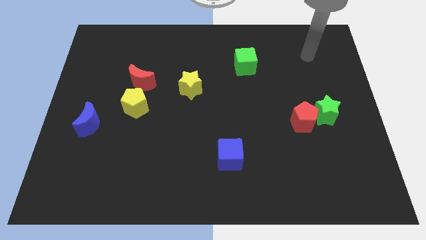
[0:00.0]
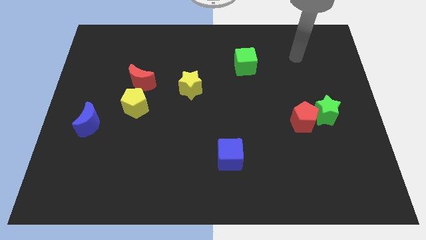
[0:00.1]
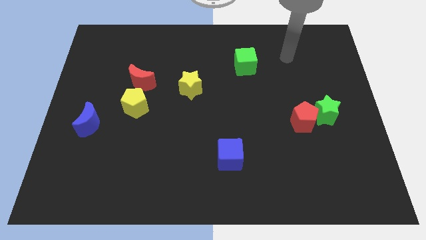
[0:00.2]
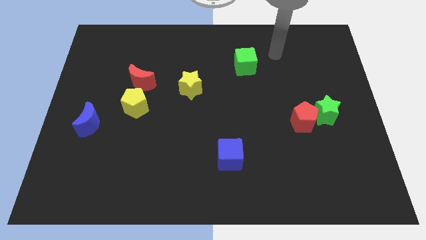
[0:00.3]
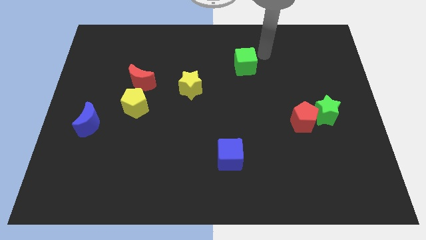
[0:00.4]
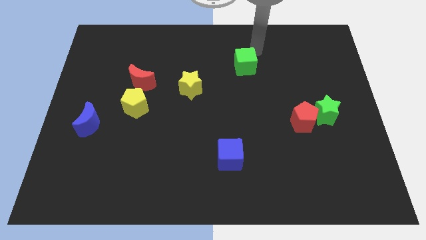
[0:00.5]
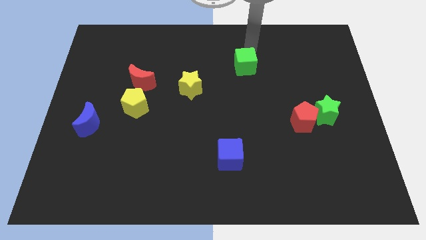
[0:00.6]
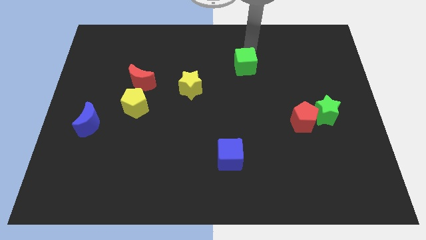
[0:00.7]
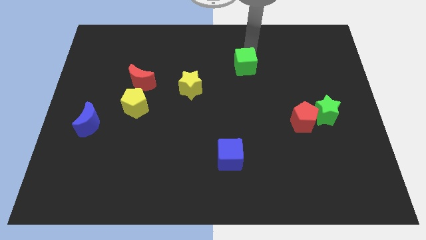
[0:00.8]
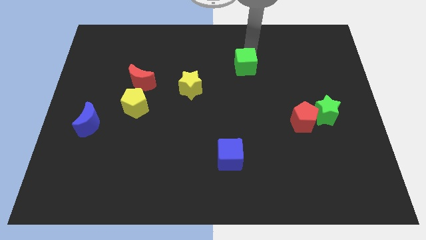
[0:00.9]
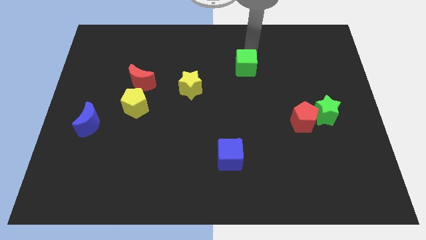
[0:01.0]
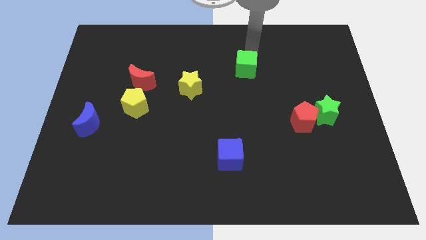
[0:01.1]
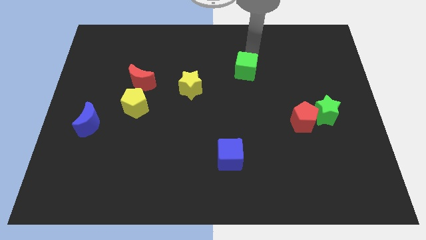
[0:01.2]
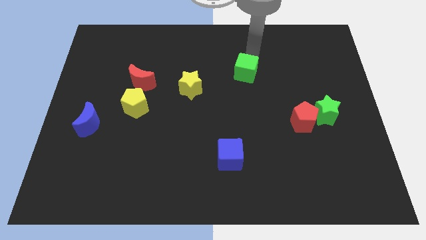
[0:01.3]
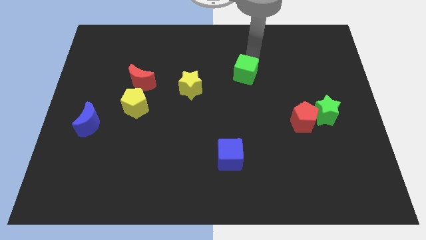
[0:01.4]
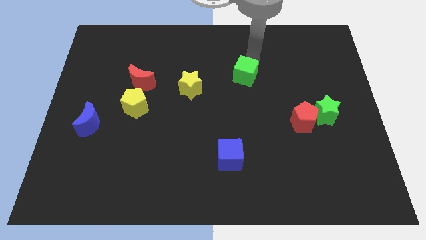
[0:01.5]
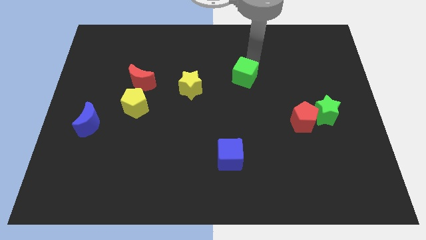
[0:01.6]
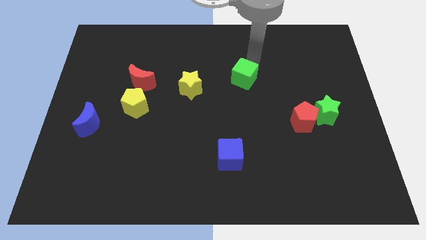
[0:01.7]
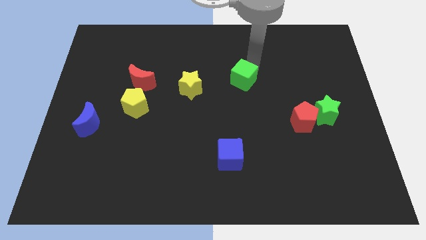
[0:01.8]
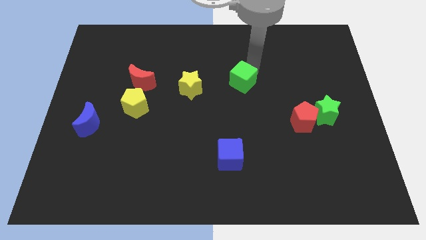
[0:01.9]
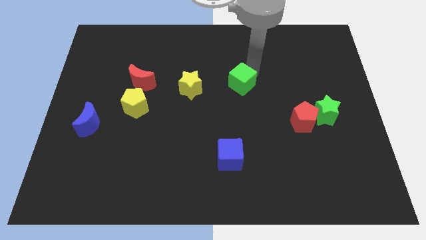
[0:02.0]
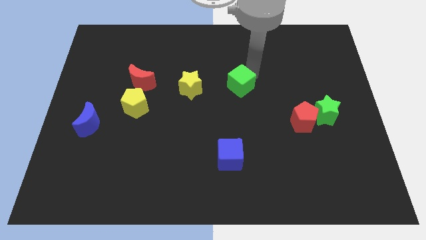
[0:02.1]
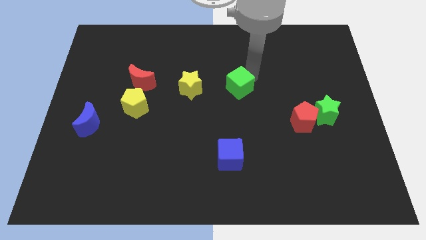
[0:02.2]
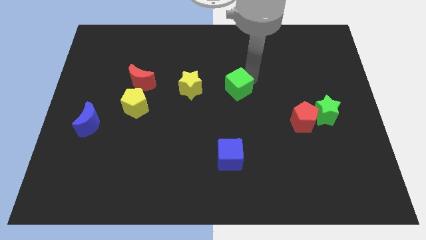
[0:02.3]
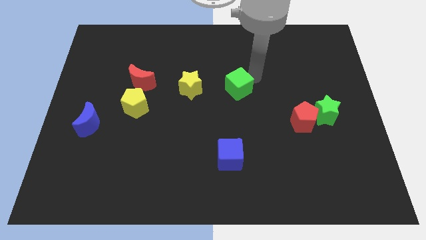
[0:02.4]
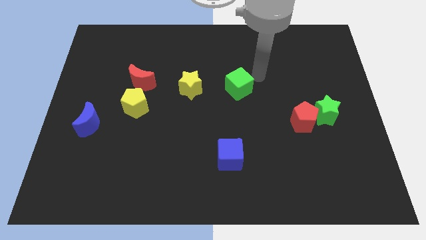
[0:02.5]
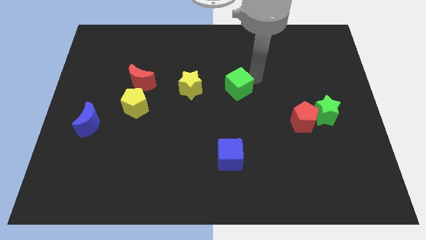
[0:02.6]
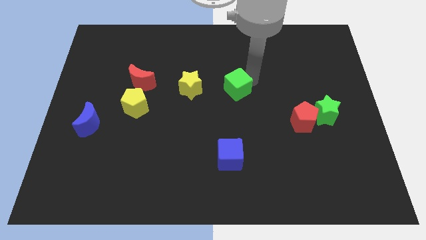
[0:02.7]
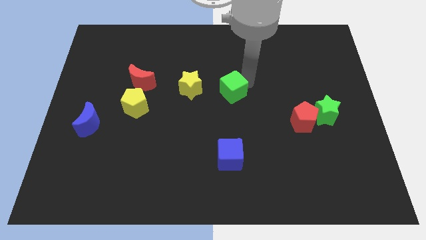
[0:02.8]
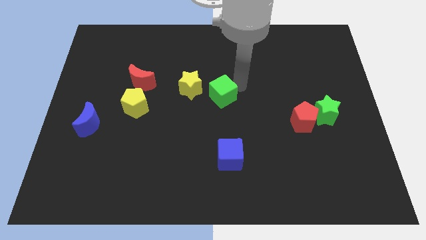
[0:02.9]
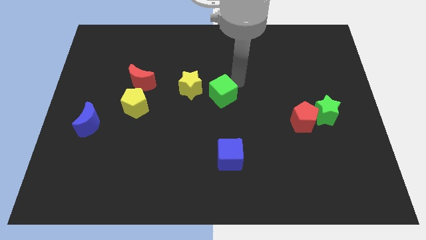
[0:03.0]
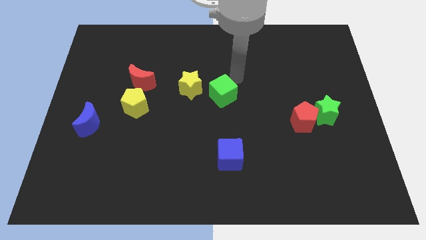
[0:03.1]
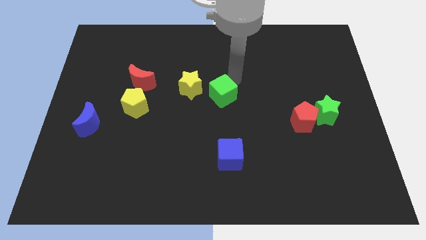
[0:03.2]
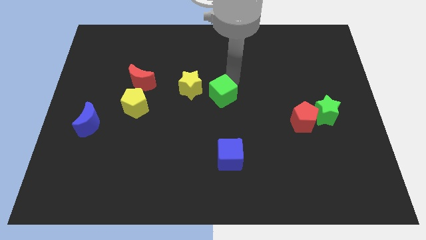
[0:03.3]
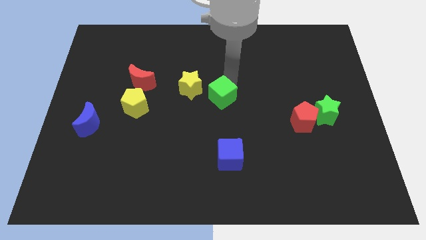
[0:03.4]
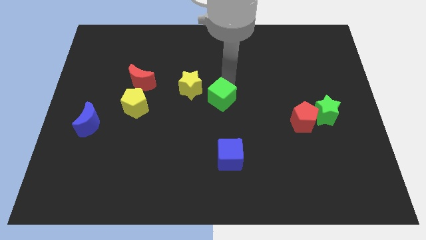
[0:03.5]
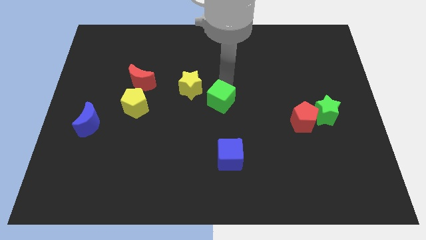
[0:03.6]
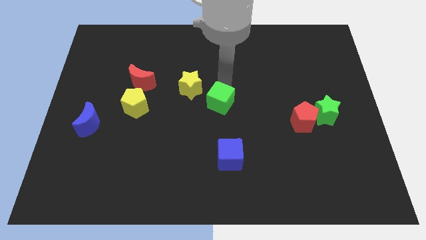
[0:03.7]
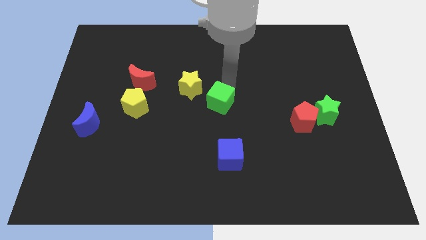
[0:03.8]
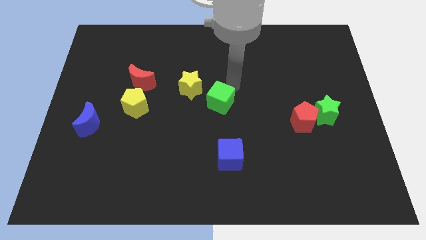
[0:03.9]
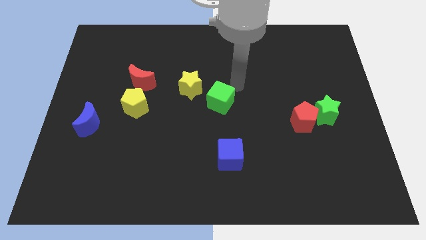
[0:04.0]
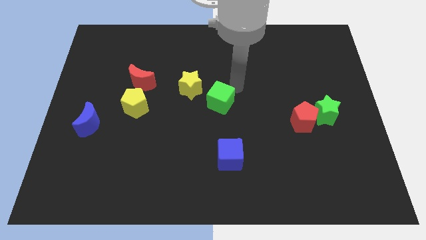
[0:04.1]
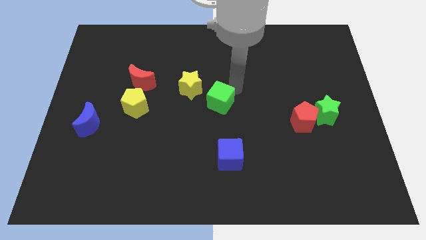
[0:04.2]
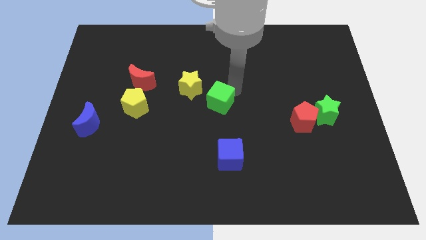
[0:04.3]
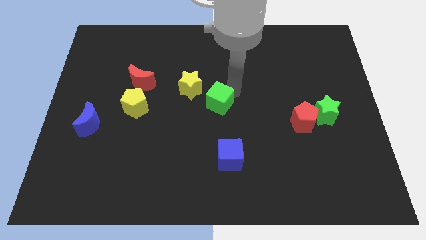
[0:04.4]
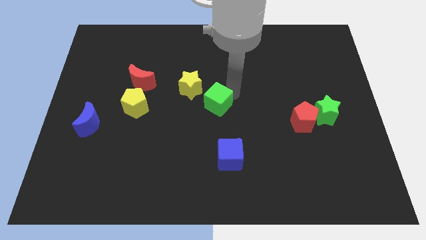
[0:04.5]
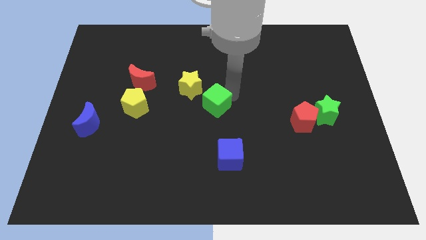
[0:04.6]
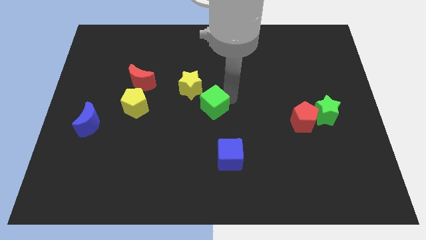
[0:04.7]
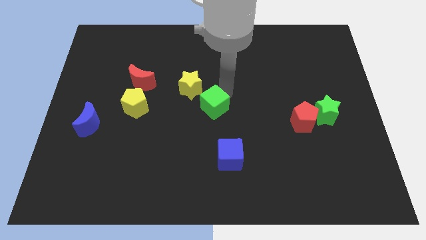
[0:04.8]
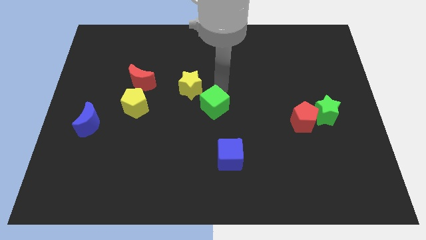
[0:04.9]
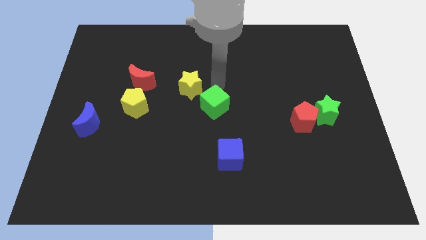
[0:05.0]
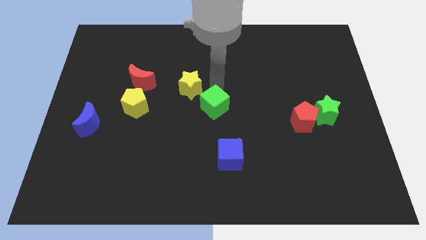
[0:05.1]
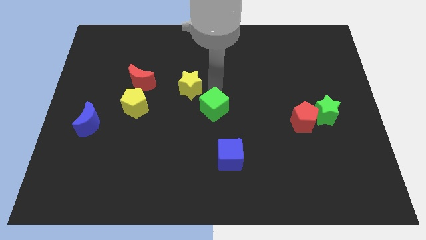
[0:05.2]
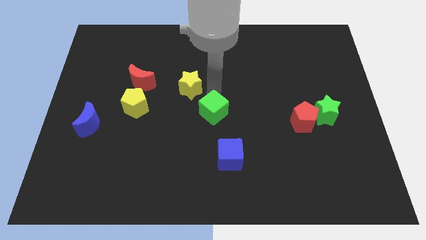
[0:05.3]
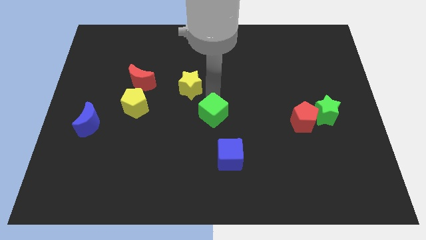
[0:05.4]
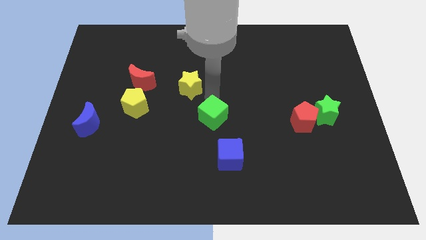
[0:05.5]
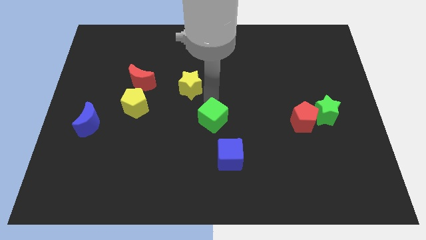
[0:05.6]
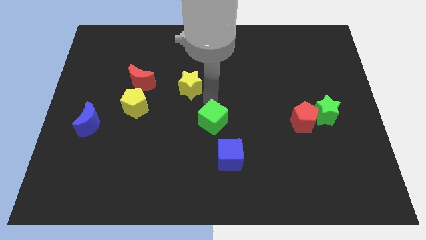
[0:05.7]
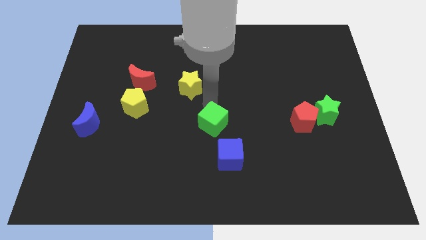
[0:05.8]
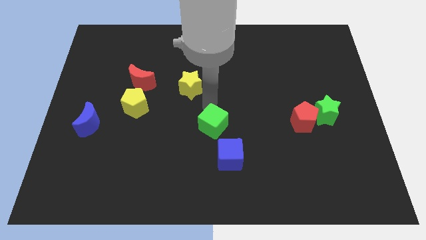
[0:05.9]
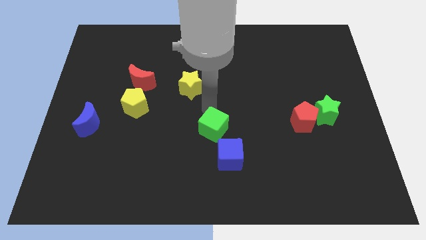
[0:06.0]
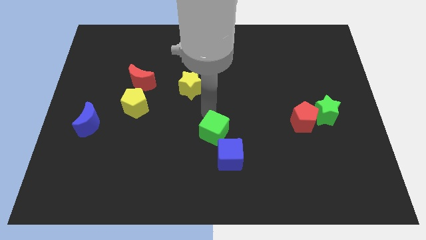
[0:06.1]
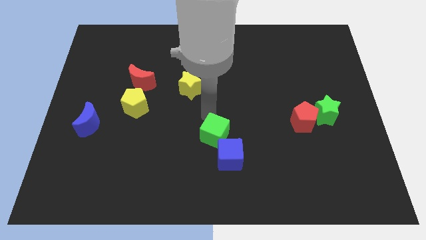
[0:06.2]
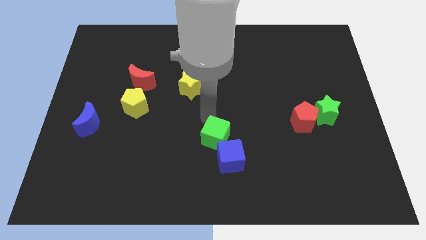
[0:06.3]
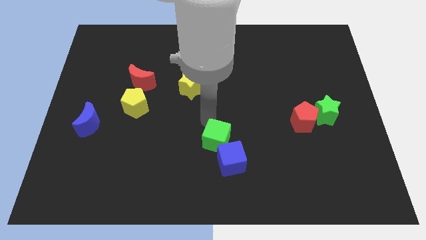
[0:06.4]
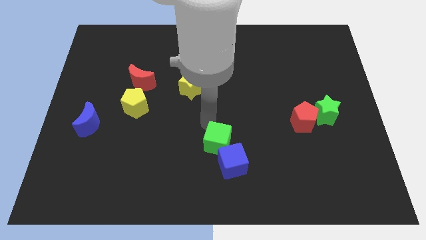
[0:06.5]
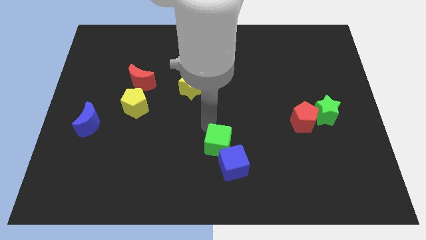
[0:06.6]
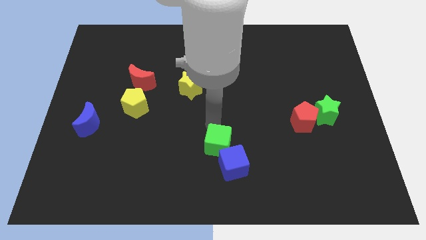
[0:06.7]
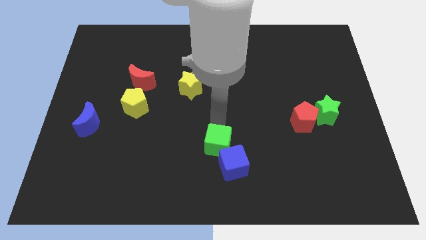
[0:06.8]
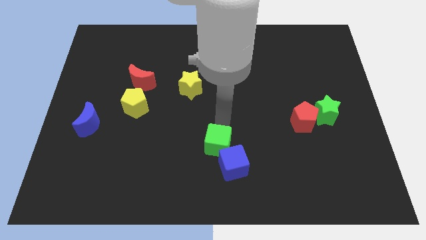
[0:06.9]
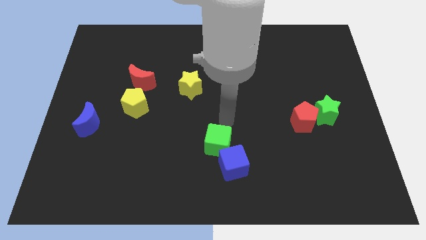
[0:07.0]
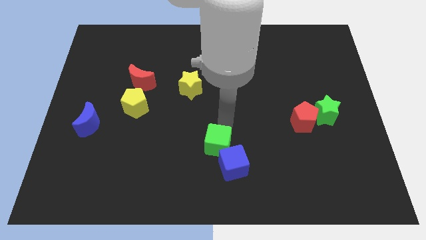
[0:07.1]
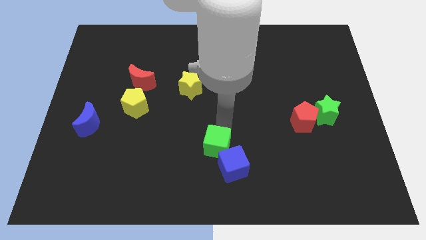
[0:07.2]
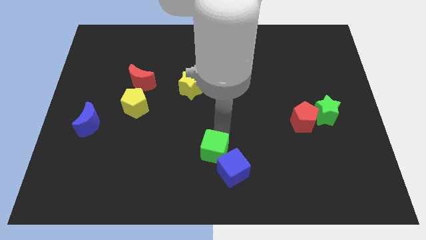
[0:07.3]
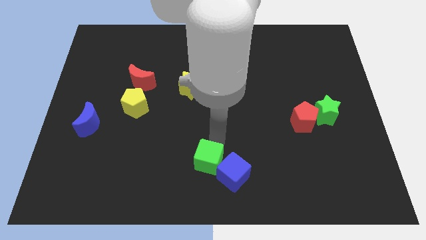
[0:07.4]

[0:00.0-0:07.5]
move the green cube to the bottom
